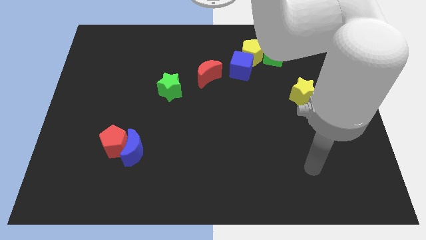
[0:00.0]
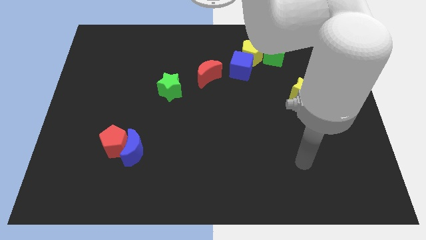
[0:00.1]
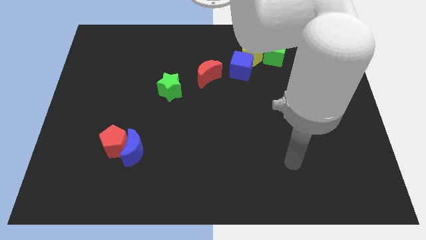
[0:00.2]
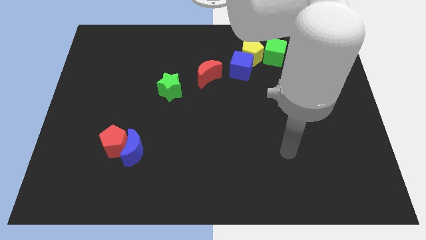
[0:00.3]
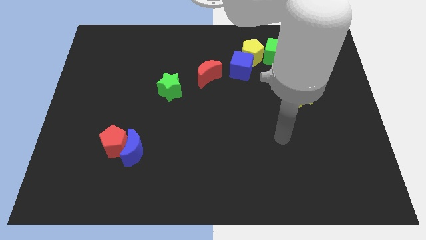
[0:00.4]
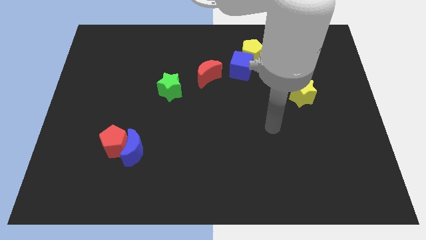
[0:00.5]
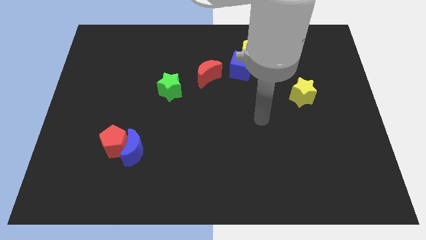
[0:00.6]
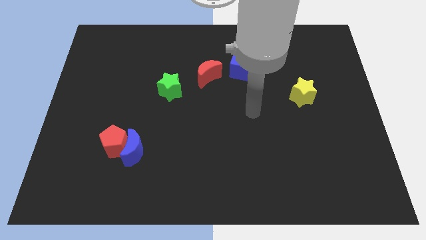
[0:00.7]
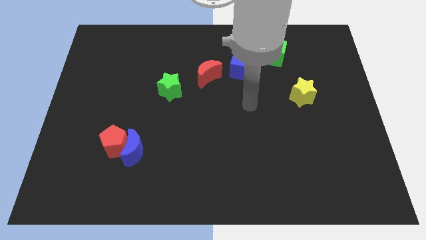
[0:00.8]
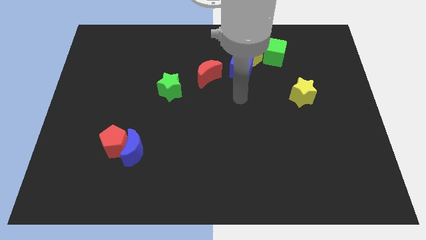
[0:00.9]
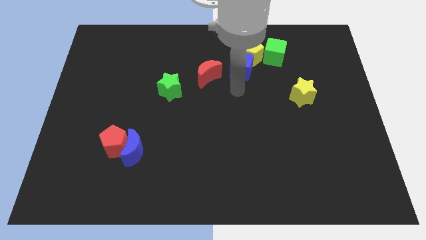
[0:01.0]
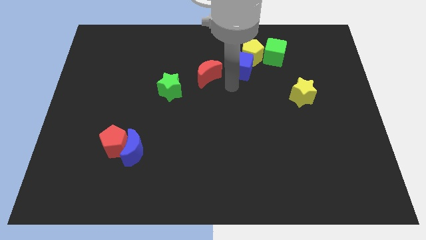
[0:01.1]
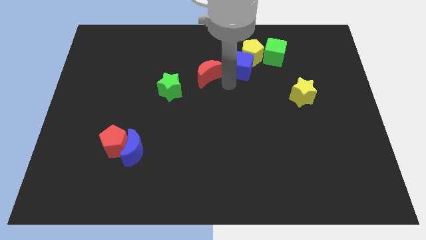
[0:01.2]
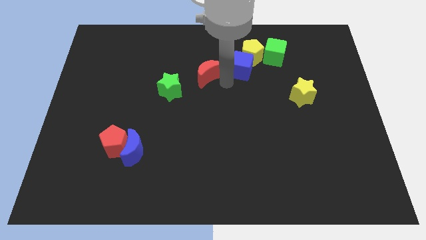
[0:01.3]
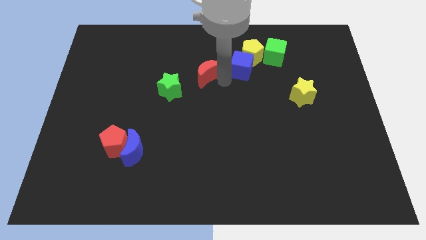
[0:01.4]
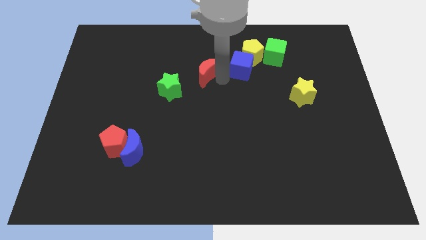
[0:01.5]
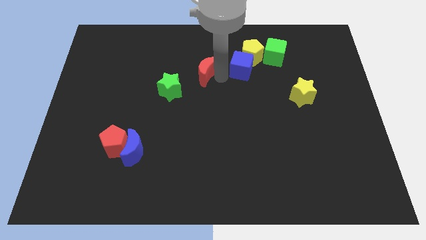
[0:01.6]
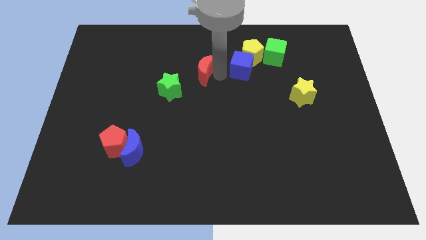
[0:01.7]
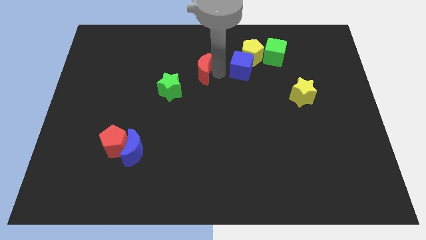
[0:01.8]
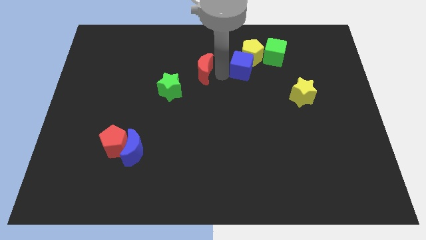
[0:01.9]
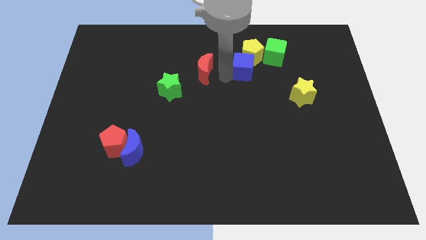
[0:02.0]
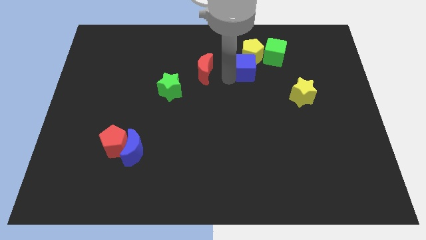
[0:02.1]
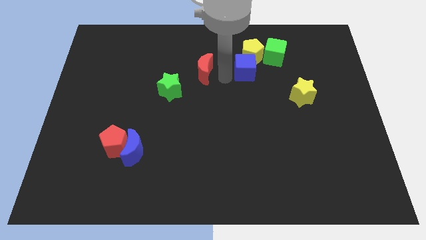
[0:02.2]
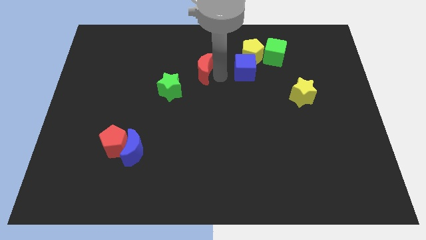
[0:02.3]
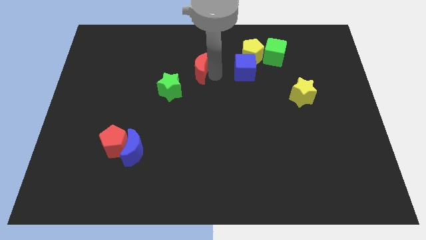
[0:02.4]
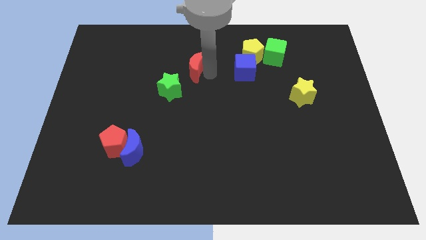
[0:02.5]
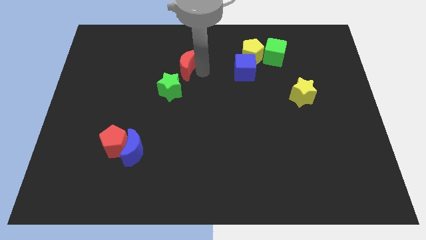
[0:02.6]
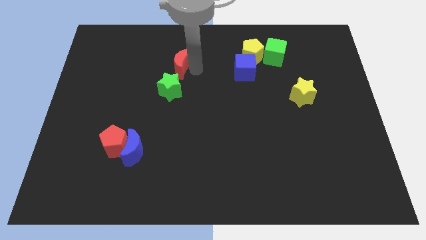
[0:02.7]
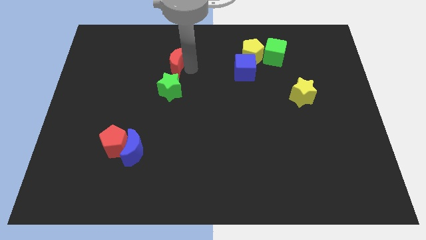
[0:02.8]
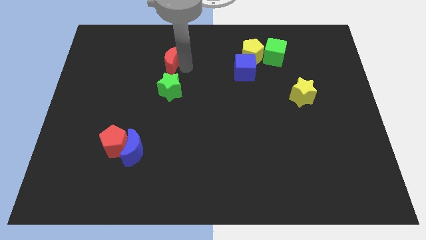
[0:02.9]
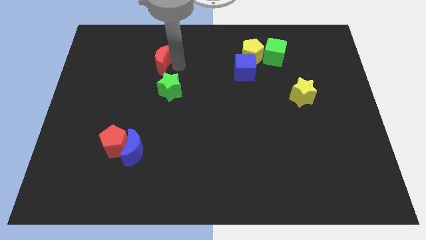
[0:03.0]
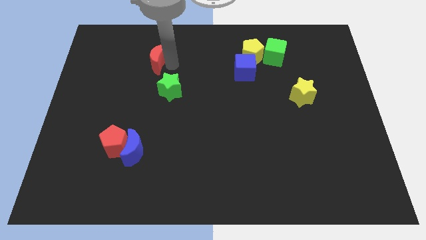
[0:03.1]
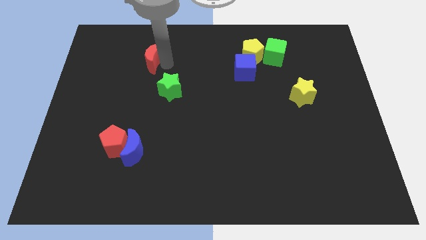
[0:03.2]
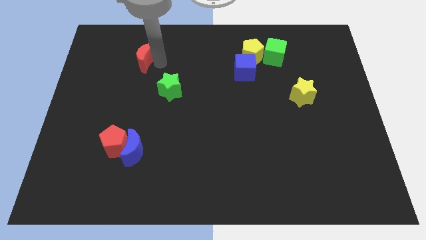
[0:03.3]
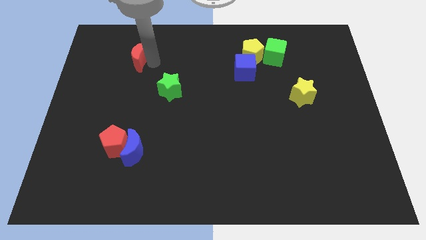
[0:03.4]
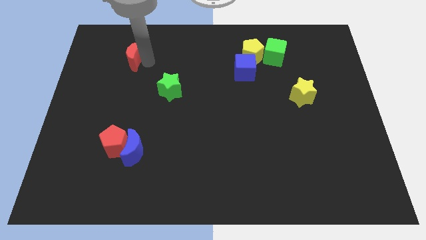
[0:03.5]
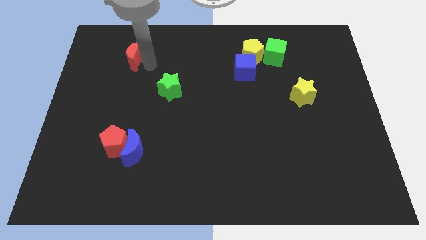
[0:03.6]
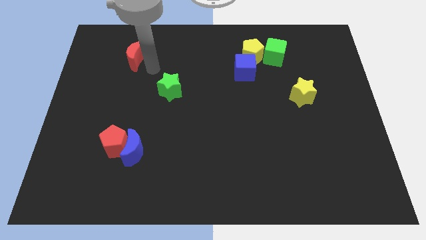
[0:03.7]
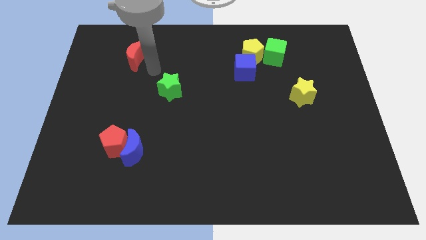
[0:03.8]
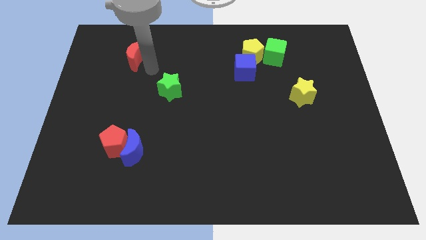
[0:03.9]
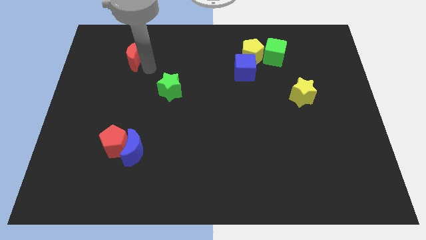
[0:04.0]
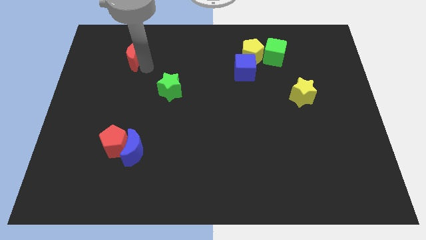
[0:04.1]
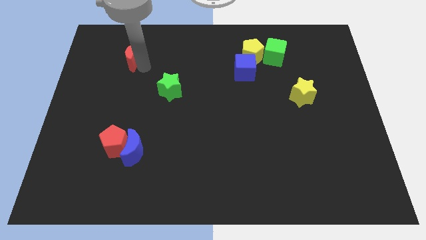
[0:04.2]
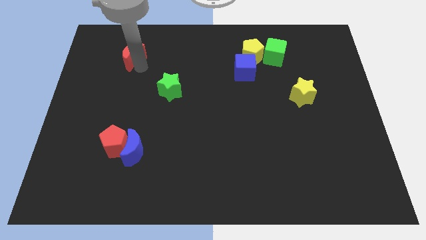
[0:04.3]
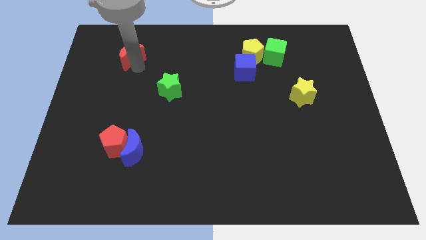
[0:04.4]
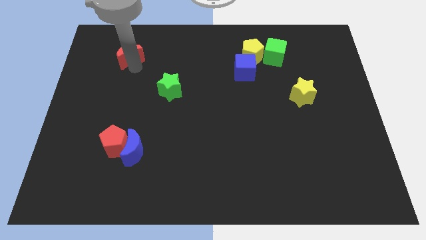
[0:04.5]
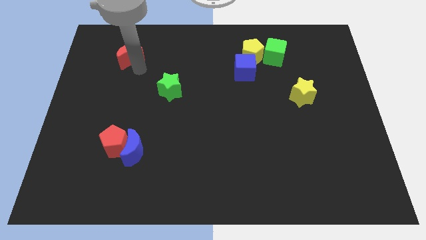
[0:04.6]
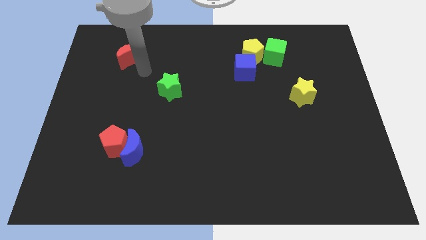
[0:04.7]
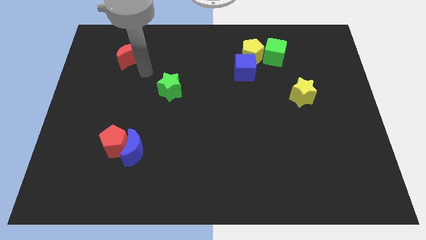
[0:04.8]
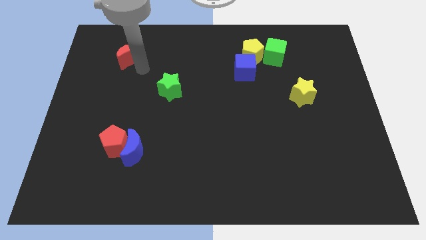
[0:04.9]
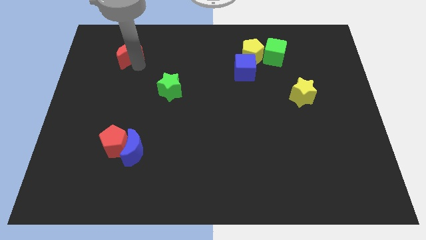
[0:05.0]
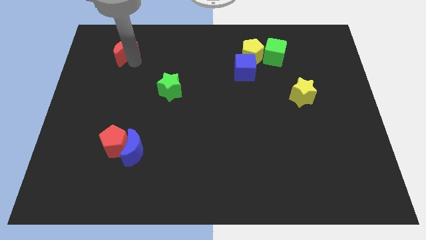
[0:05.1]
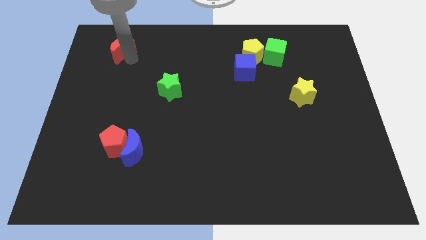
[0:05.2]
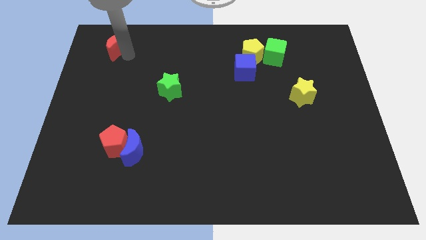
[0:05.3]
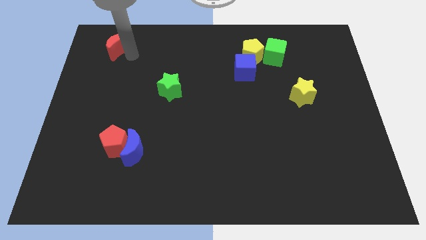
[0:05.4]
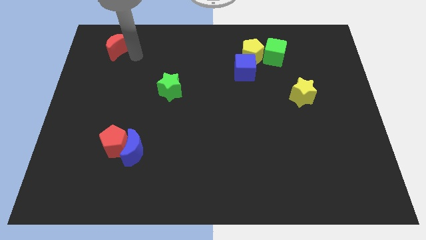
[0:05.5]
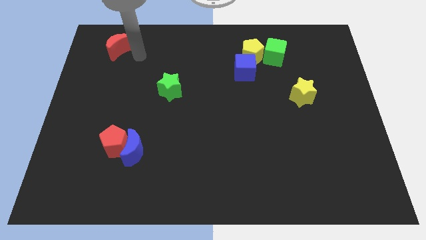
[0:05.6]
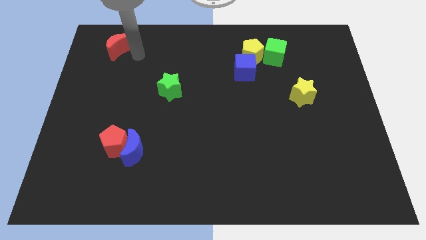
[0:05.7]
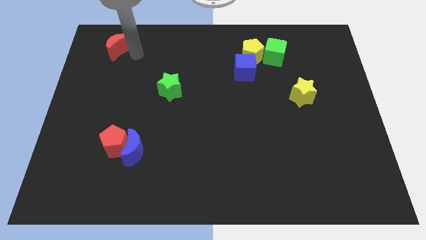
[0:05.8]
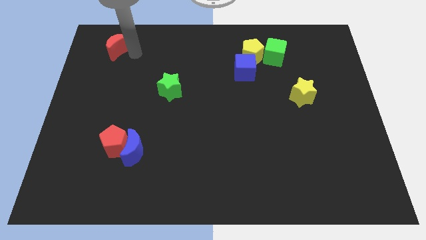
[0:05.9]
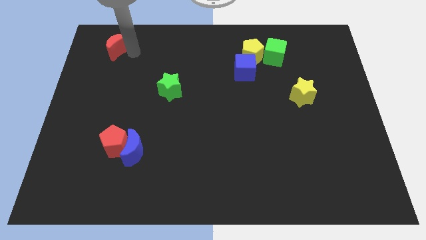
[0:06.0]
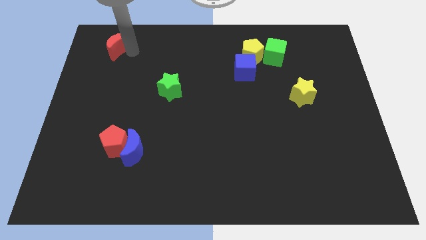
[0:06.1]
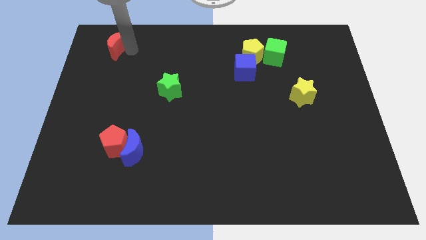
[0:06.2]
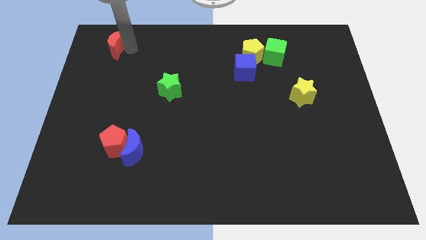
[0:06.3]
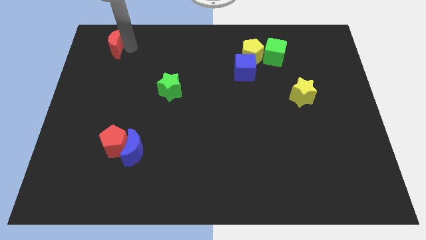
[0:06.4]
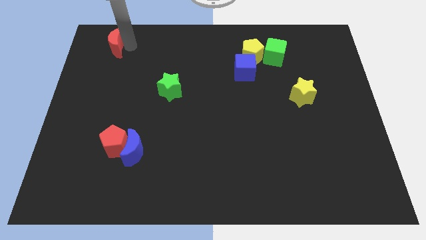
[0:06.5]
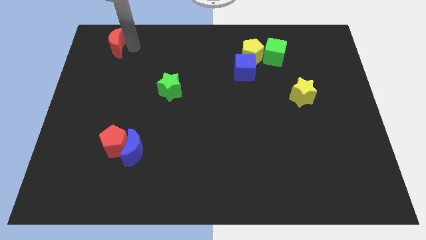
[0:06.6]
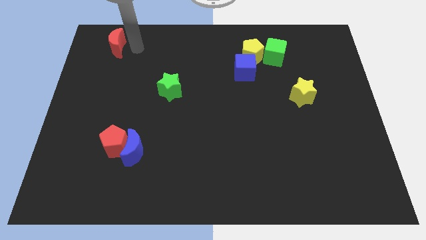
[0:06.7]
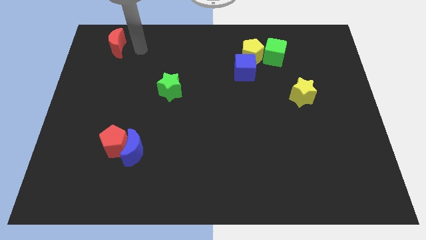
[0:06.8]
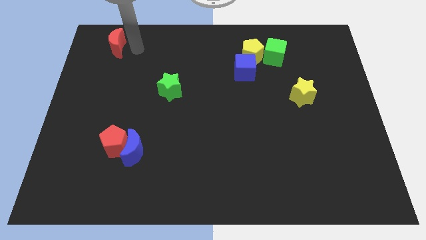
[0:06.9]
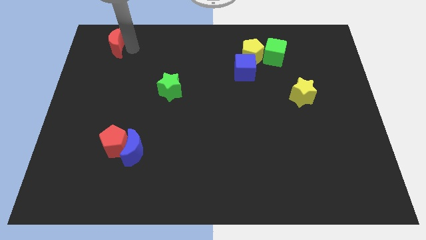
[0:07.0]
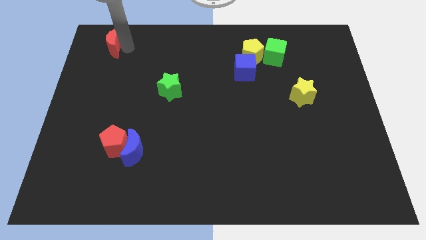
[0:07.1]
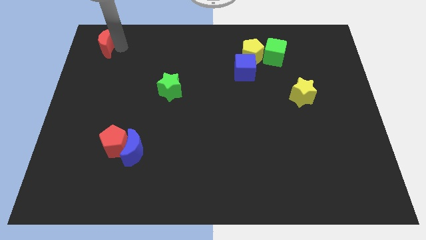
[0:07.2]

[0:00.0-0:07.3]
push the red moon to the top left corner
